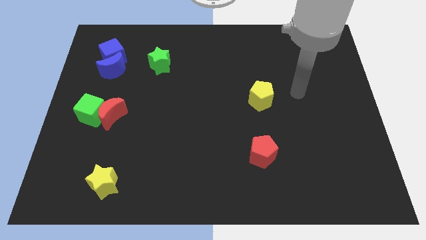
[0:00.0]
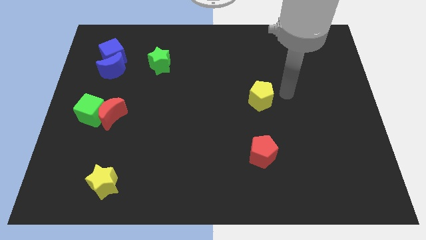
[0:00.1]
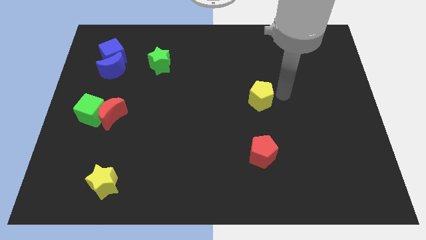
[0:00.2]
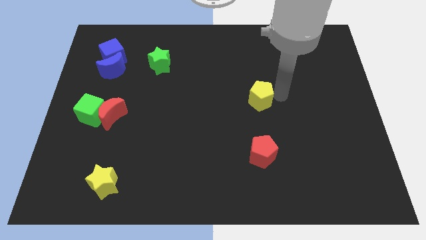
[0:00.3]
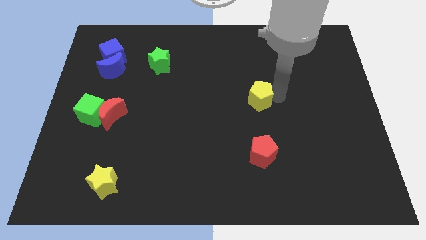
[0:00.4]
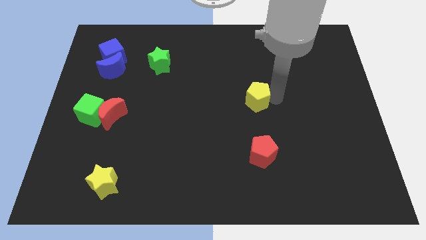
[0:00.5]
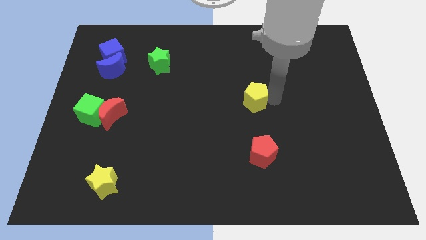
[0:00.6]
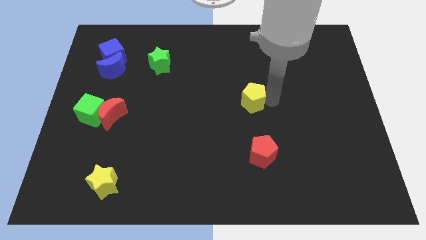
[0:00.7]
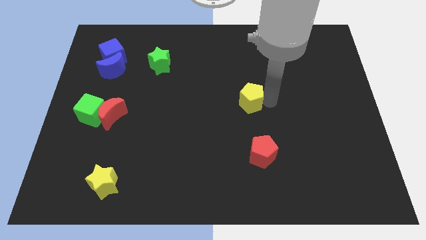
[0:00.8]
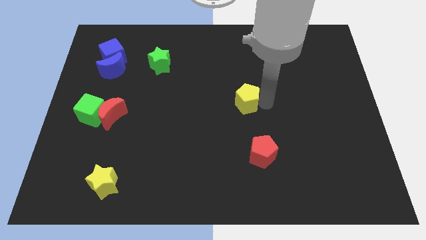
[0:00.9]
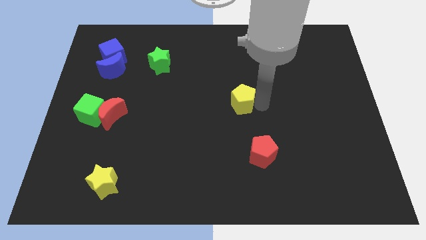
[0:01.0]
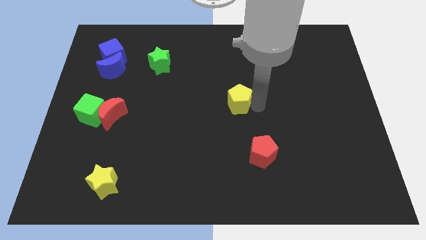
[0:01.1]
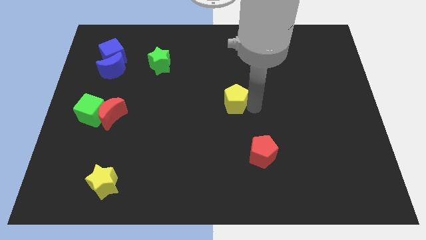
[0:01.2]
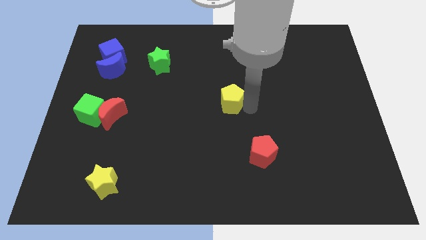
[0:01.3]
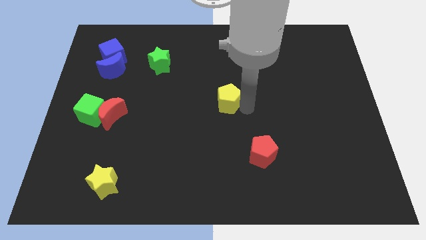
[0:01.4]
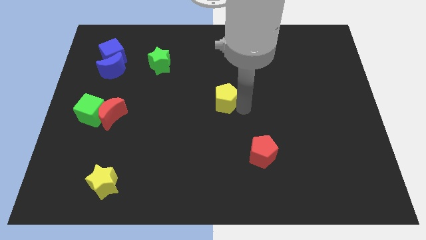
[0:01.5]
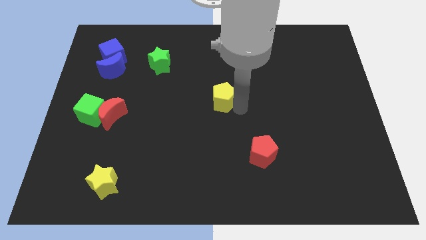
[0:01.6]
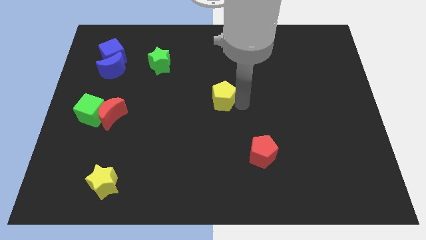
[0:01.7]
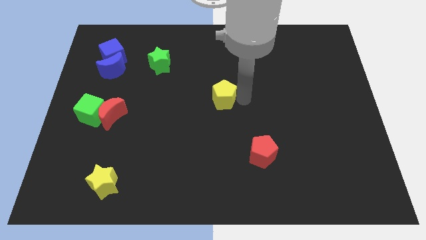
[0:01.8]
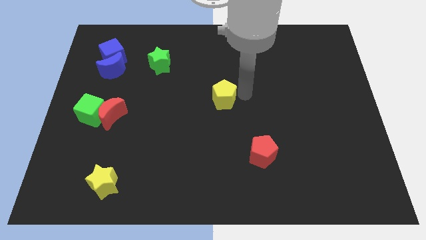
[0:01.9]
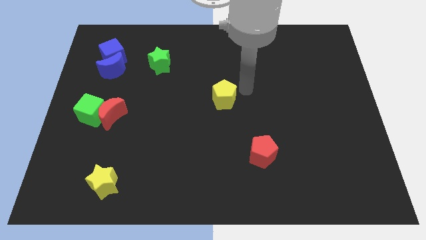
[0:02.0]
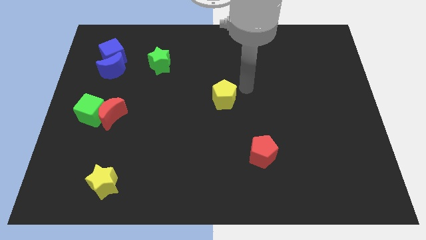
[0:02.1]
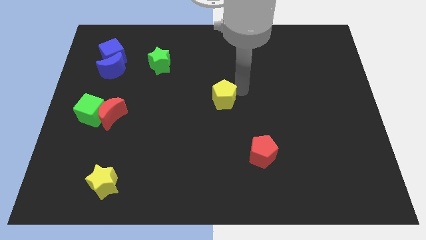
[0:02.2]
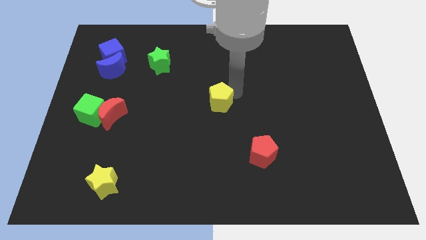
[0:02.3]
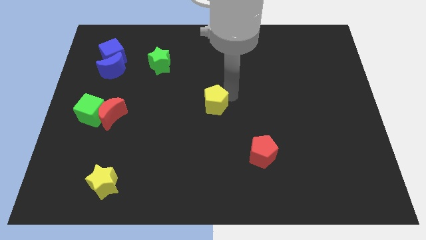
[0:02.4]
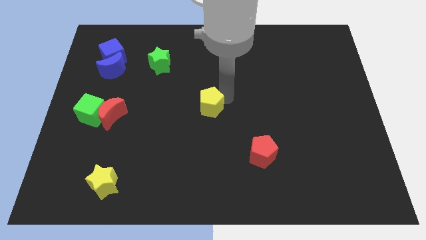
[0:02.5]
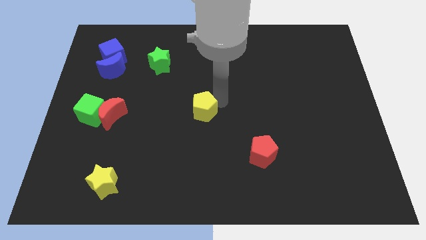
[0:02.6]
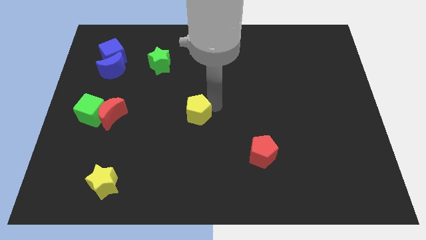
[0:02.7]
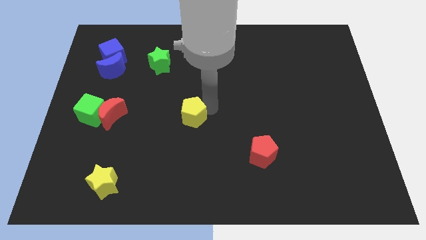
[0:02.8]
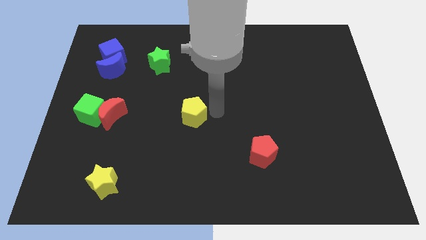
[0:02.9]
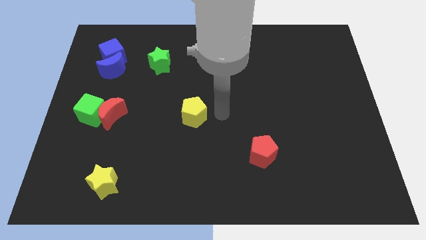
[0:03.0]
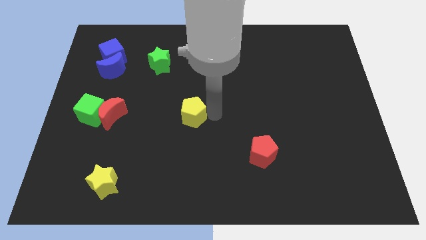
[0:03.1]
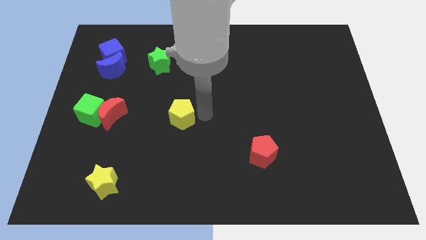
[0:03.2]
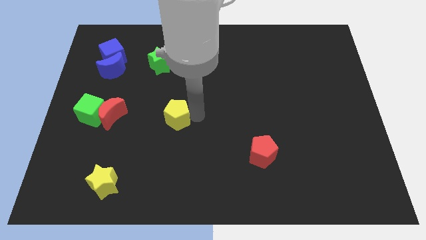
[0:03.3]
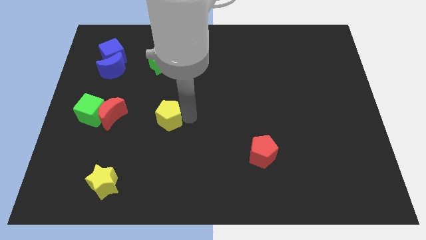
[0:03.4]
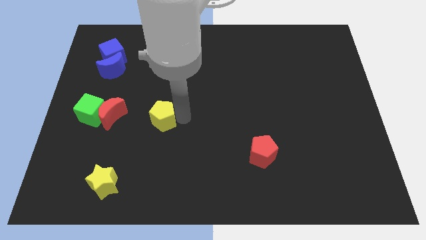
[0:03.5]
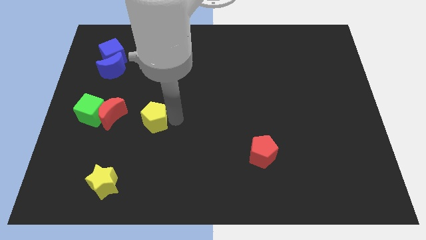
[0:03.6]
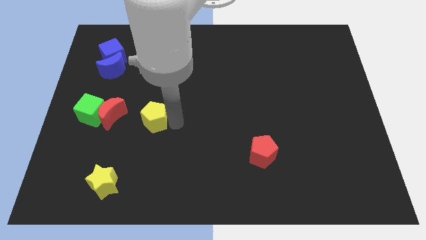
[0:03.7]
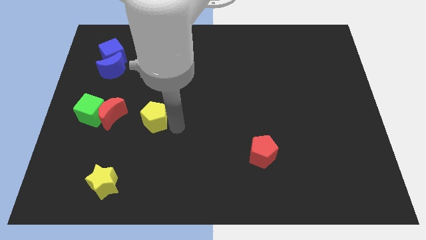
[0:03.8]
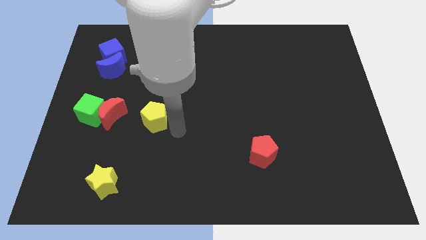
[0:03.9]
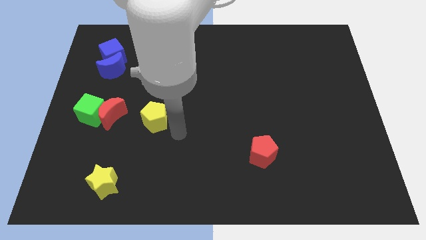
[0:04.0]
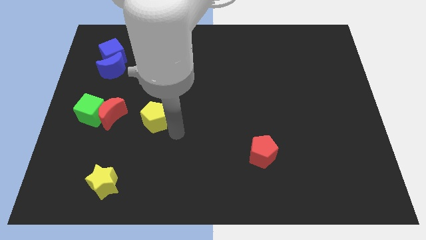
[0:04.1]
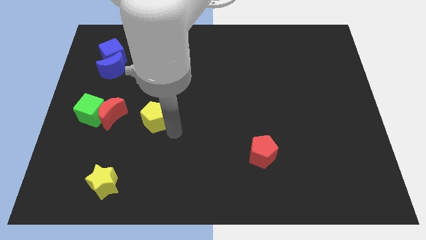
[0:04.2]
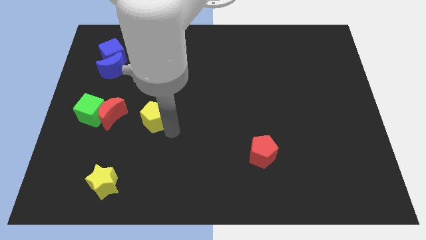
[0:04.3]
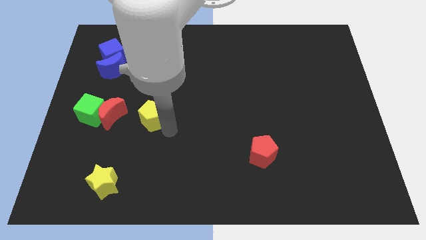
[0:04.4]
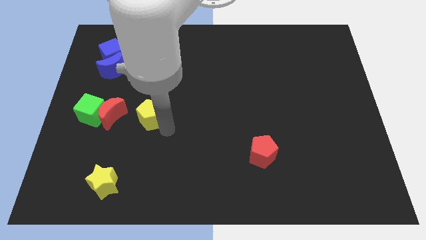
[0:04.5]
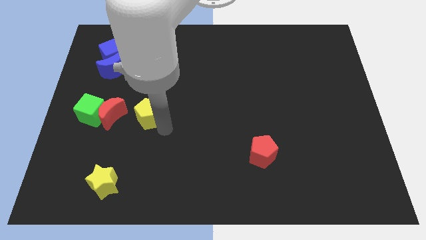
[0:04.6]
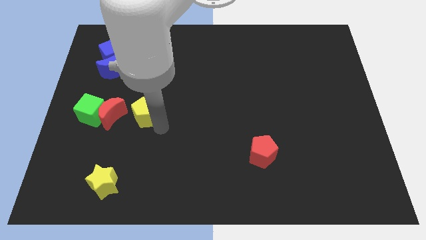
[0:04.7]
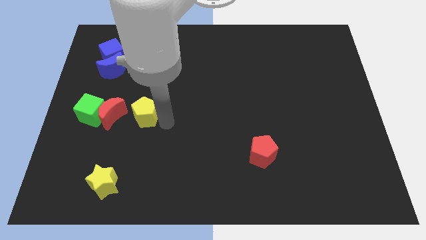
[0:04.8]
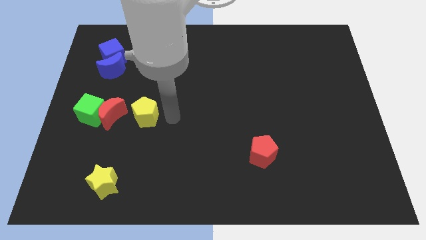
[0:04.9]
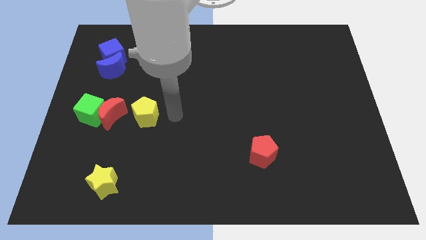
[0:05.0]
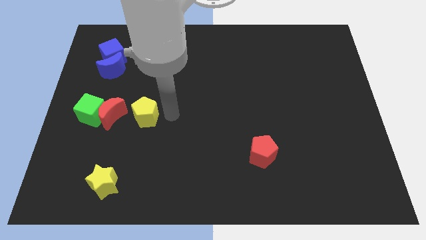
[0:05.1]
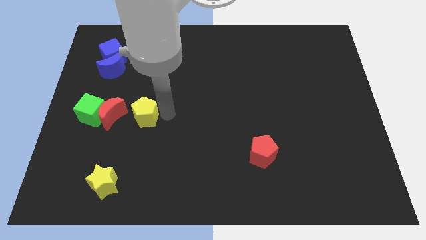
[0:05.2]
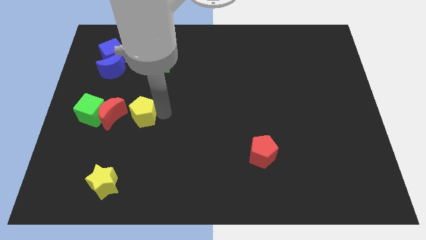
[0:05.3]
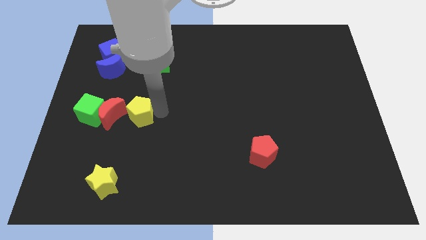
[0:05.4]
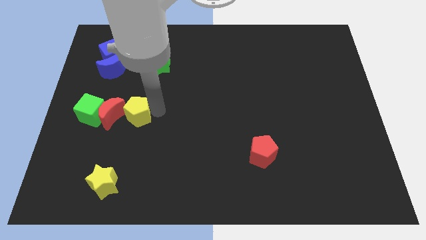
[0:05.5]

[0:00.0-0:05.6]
put the yellow pentagon close to the red moon

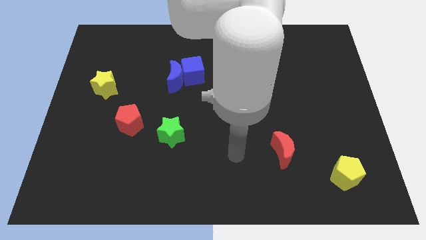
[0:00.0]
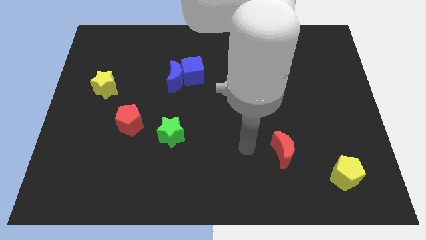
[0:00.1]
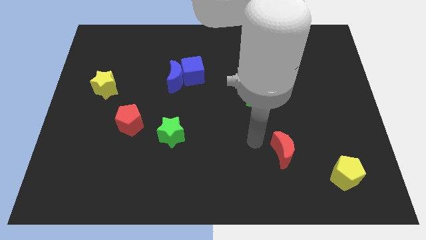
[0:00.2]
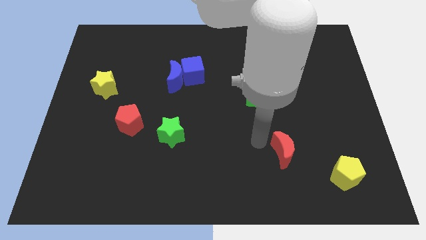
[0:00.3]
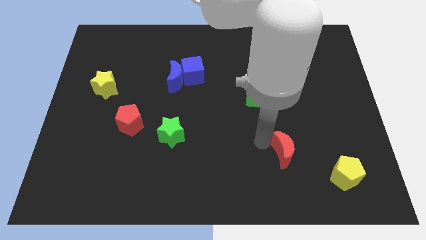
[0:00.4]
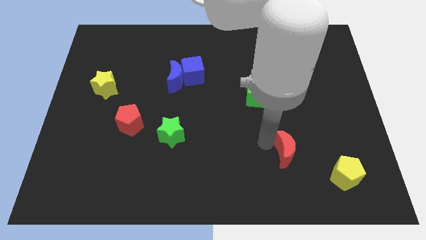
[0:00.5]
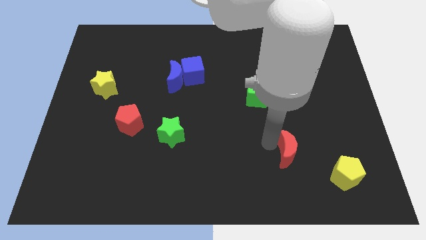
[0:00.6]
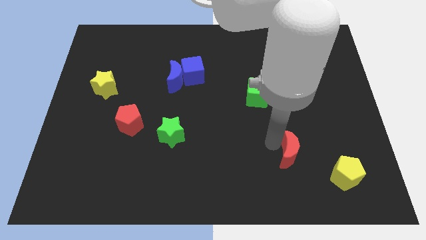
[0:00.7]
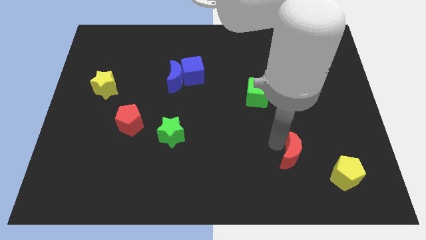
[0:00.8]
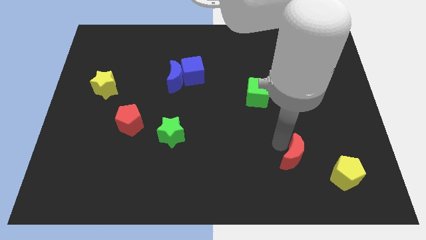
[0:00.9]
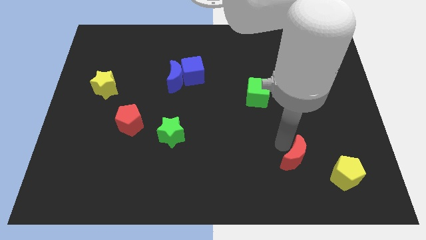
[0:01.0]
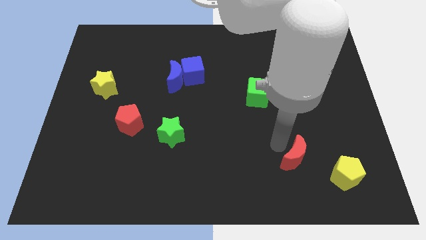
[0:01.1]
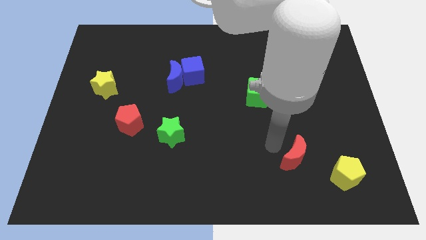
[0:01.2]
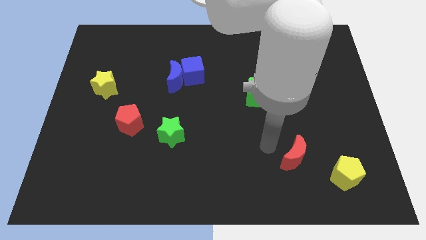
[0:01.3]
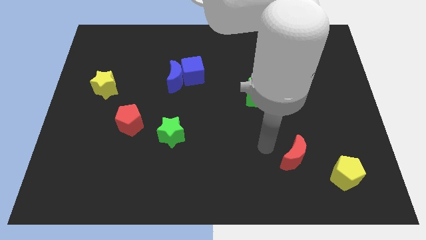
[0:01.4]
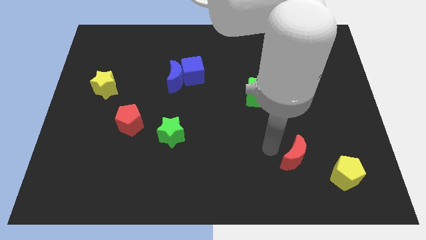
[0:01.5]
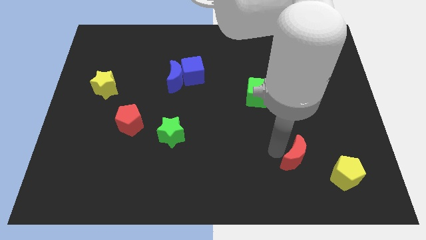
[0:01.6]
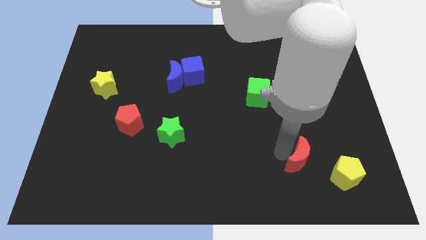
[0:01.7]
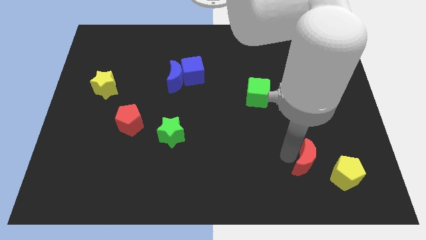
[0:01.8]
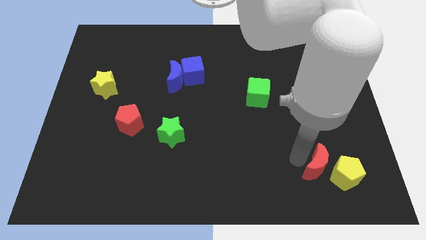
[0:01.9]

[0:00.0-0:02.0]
move the red moon towards the yellow pentagon
